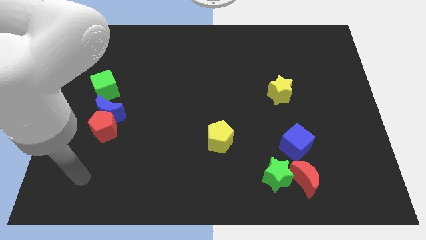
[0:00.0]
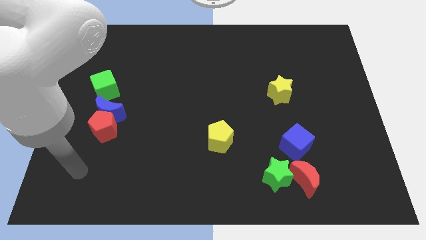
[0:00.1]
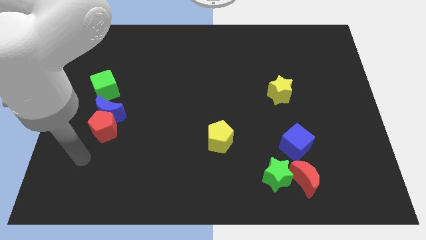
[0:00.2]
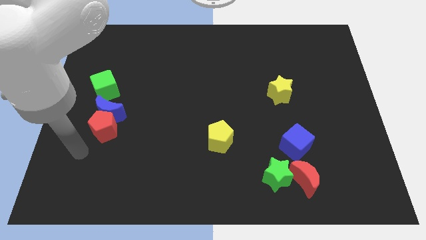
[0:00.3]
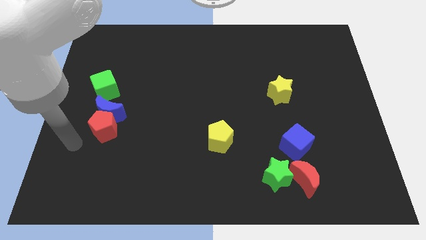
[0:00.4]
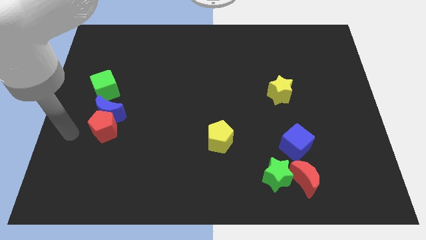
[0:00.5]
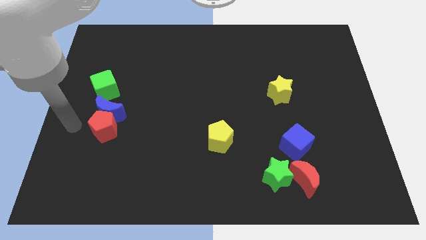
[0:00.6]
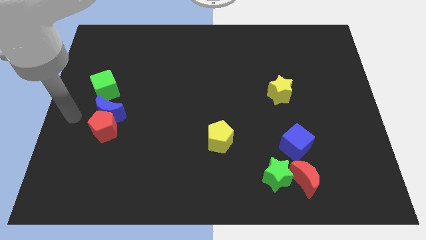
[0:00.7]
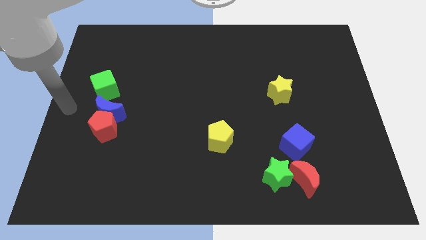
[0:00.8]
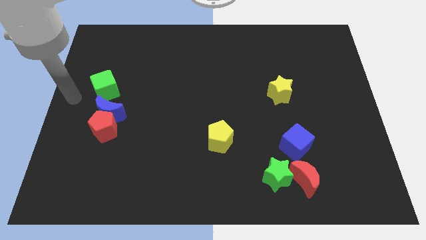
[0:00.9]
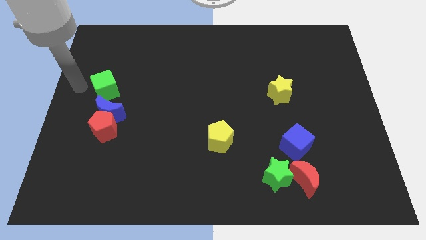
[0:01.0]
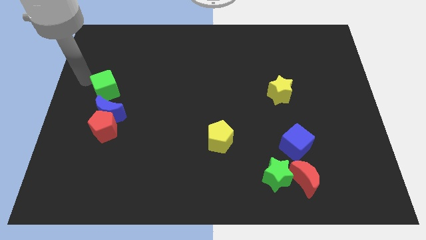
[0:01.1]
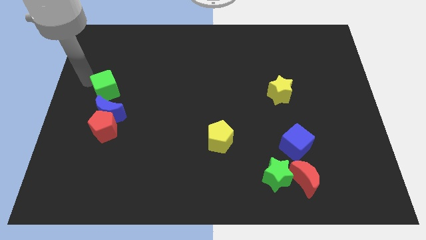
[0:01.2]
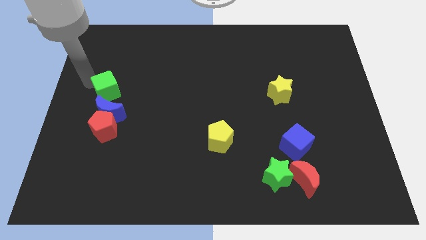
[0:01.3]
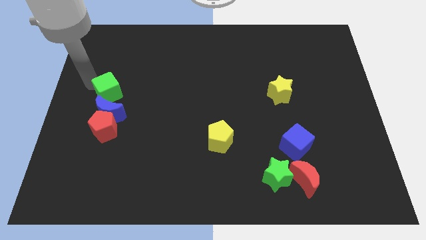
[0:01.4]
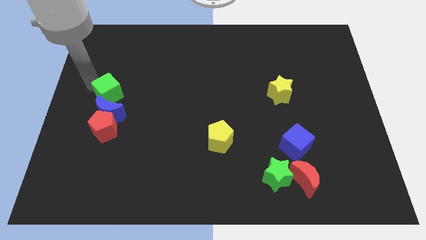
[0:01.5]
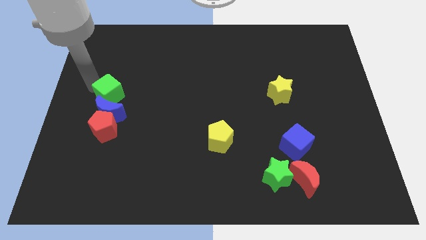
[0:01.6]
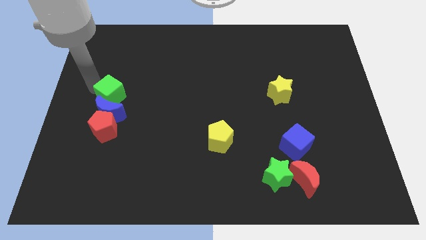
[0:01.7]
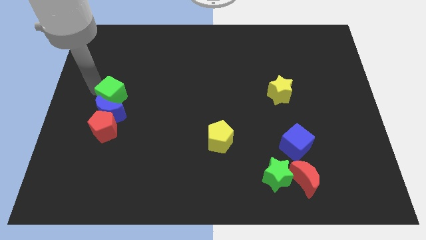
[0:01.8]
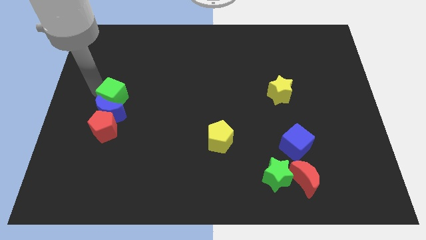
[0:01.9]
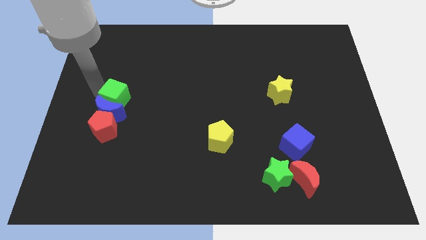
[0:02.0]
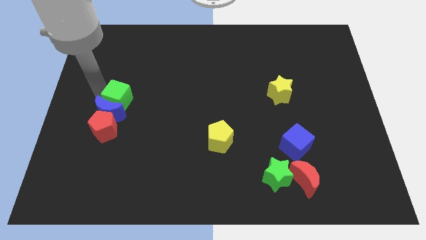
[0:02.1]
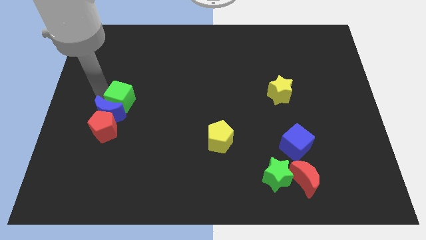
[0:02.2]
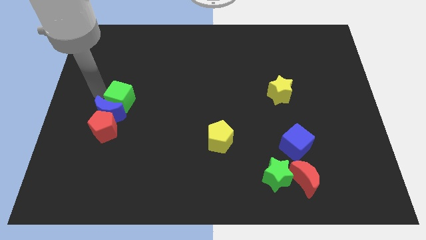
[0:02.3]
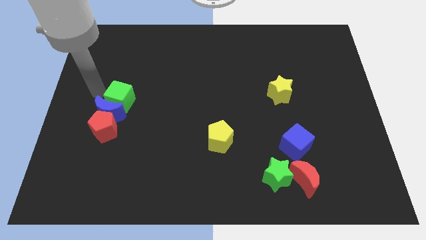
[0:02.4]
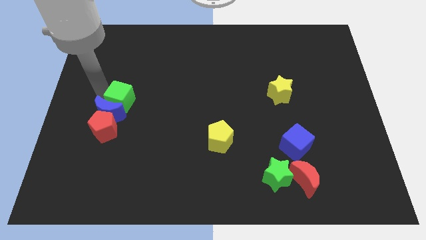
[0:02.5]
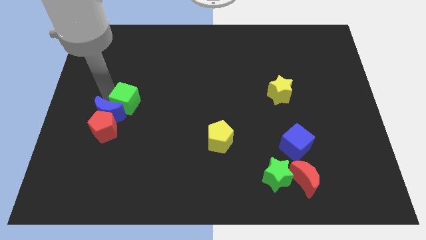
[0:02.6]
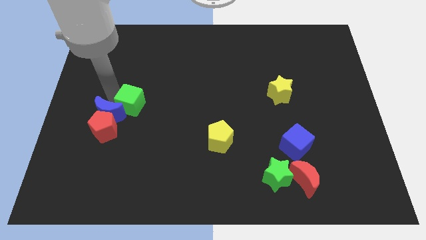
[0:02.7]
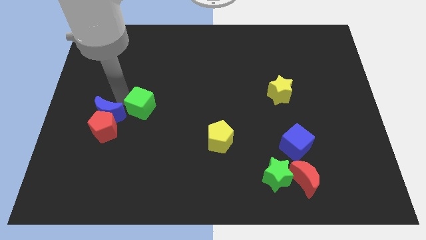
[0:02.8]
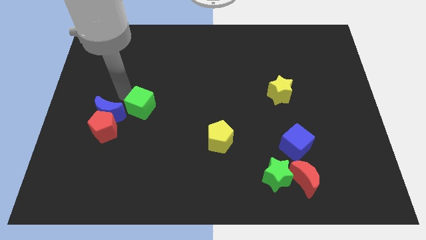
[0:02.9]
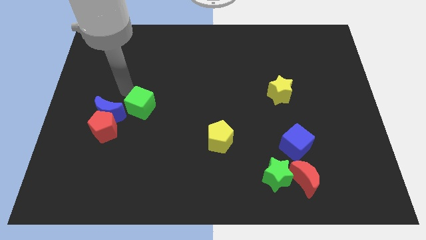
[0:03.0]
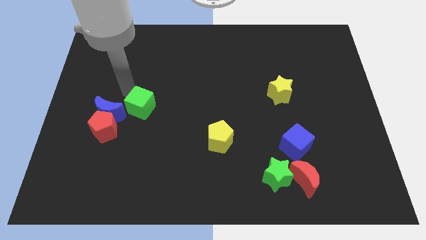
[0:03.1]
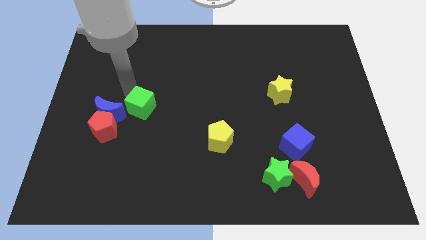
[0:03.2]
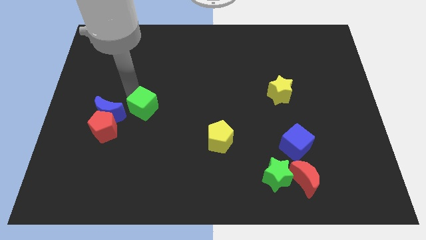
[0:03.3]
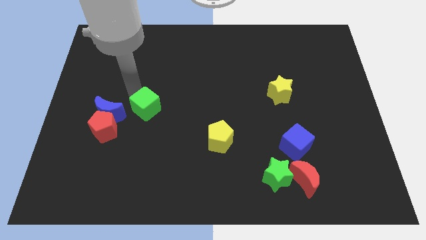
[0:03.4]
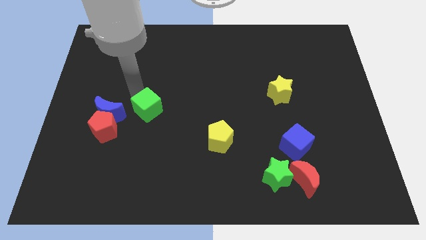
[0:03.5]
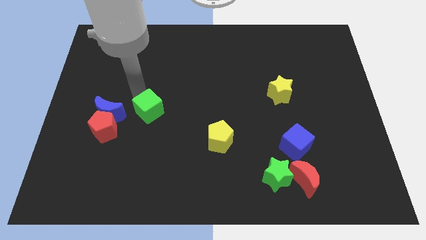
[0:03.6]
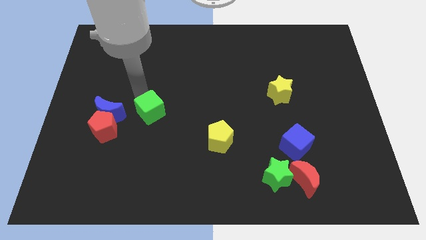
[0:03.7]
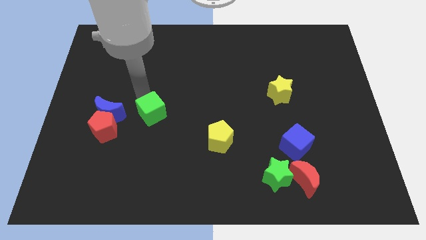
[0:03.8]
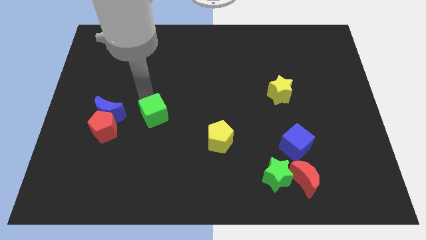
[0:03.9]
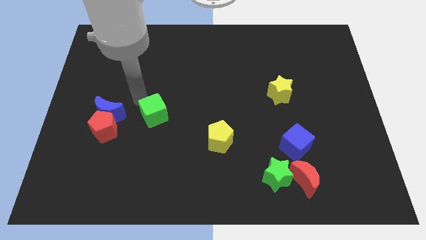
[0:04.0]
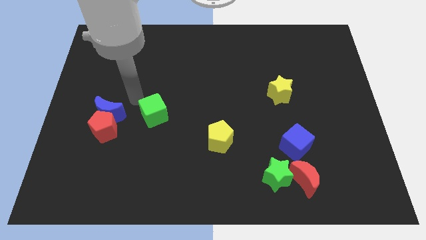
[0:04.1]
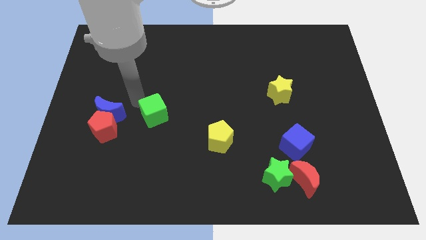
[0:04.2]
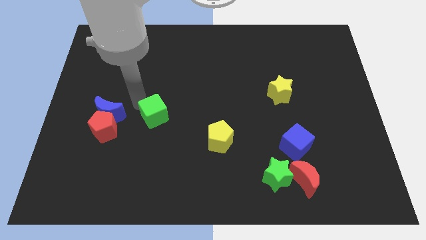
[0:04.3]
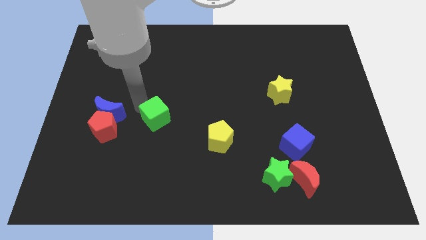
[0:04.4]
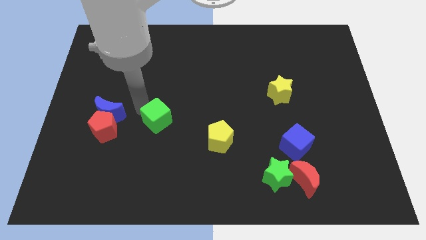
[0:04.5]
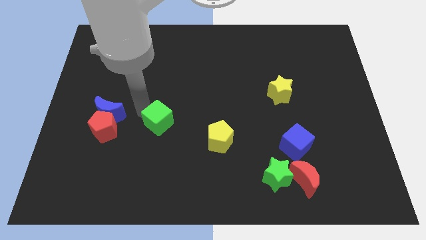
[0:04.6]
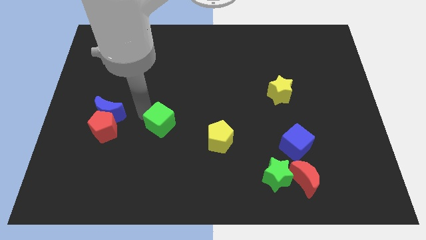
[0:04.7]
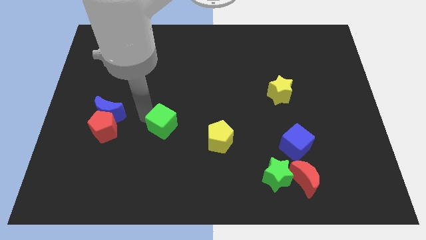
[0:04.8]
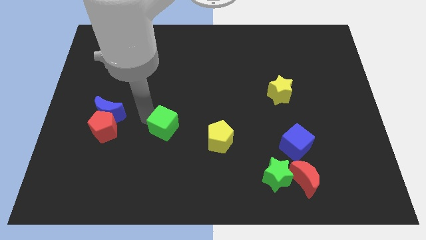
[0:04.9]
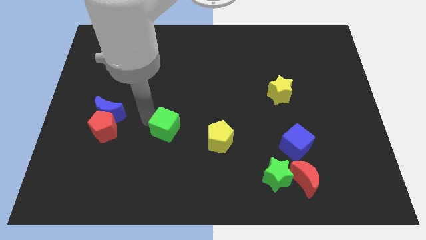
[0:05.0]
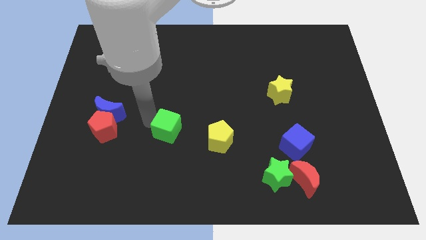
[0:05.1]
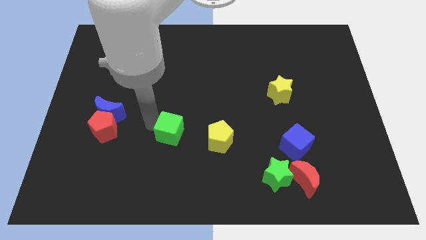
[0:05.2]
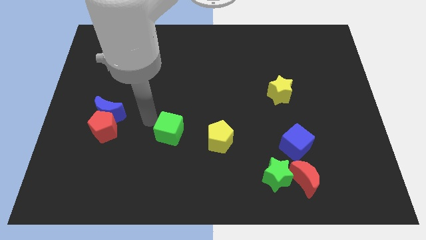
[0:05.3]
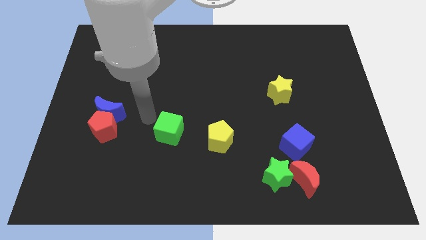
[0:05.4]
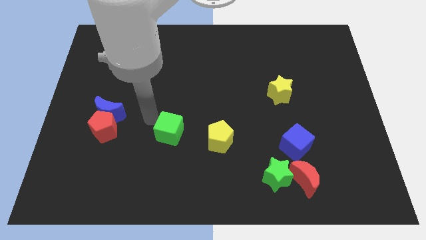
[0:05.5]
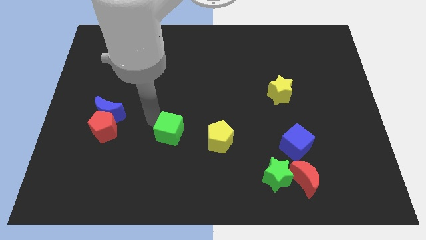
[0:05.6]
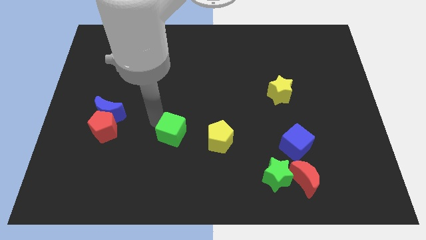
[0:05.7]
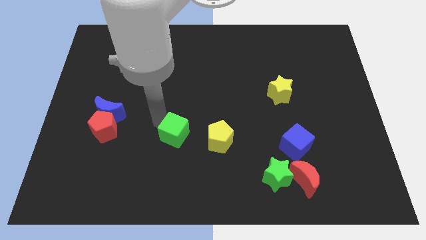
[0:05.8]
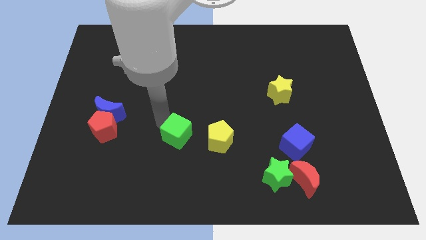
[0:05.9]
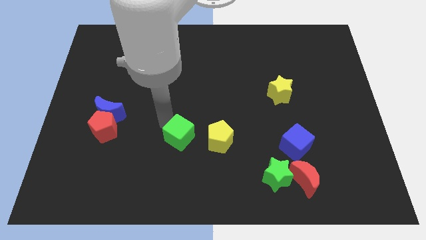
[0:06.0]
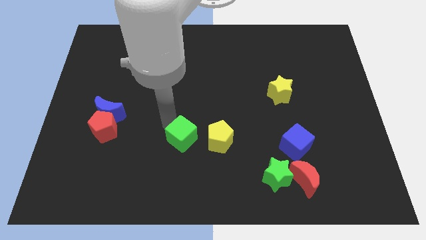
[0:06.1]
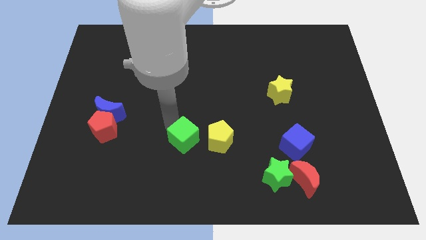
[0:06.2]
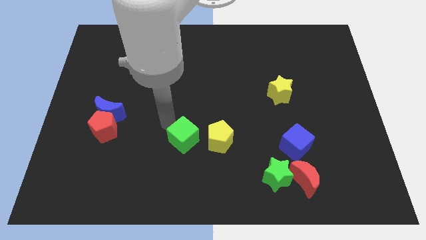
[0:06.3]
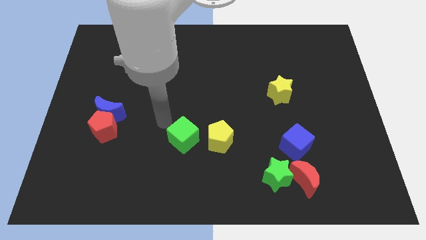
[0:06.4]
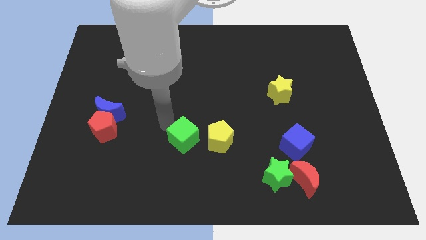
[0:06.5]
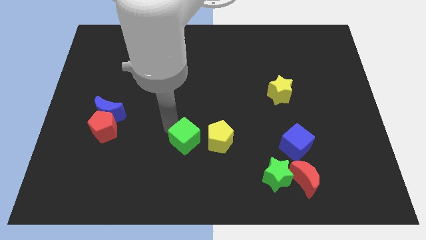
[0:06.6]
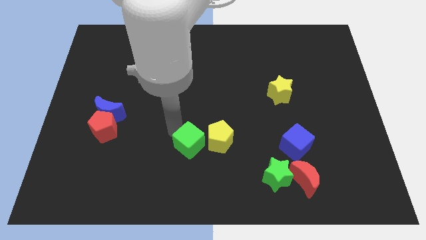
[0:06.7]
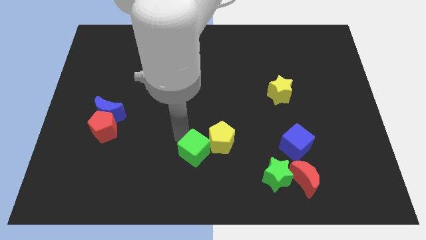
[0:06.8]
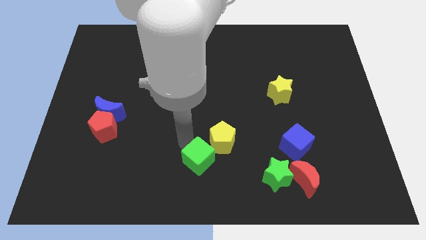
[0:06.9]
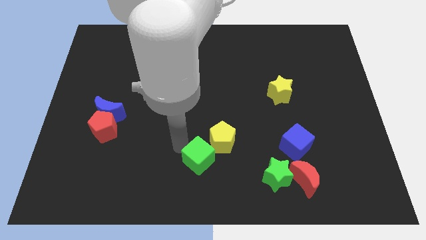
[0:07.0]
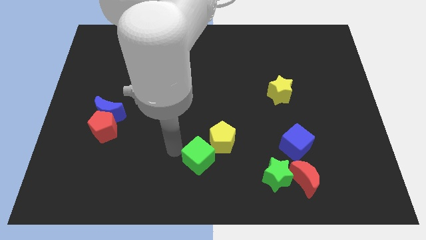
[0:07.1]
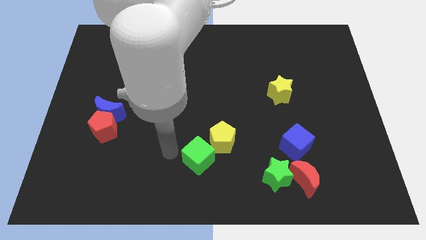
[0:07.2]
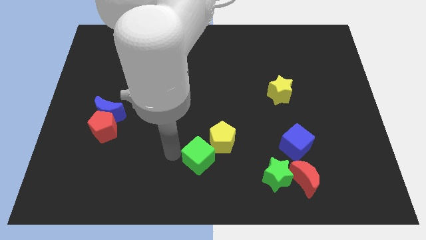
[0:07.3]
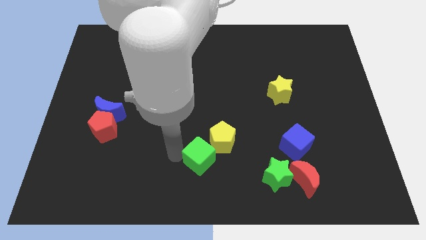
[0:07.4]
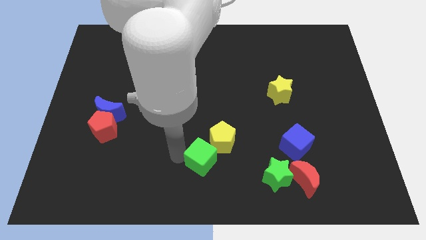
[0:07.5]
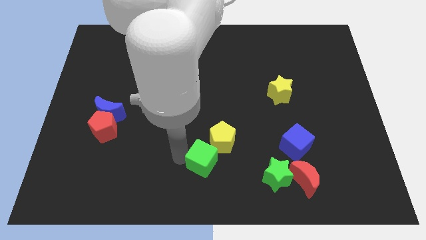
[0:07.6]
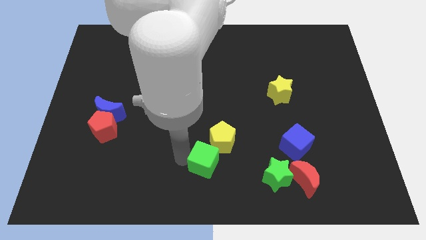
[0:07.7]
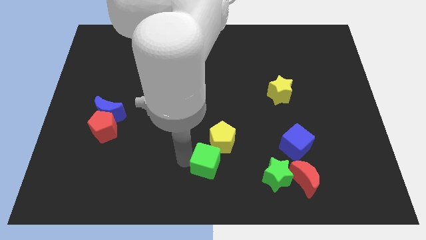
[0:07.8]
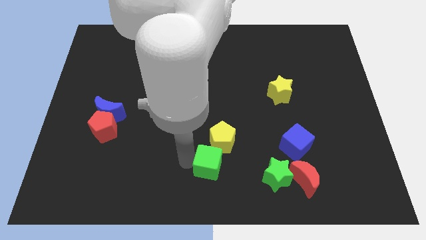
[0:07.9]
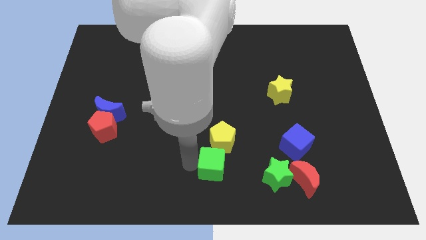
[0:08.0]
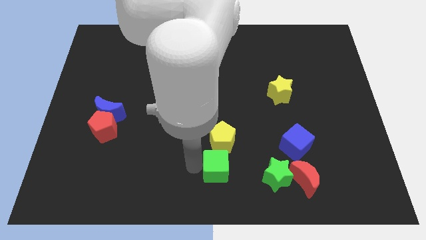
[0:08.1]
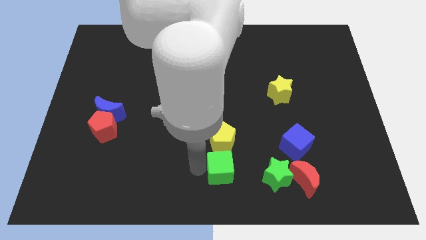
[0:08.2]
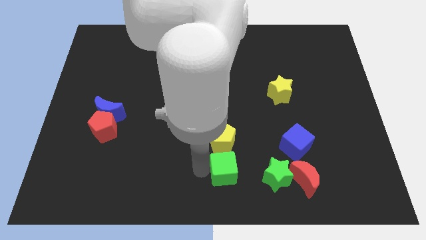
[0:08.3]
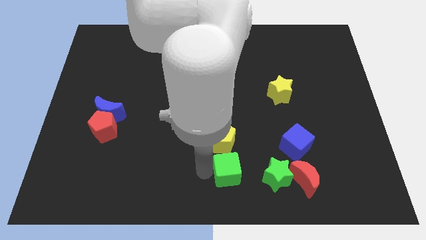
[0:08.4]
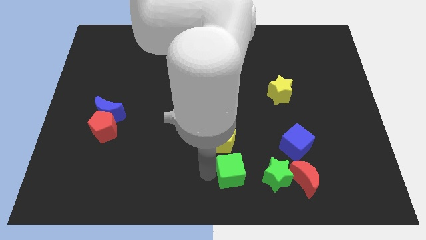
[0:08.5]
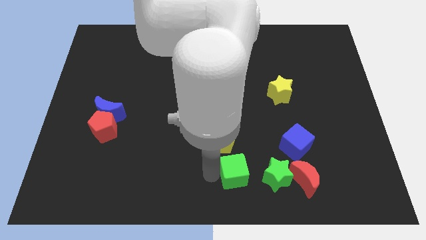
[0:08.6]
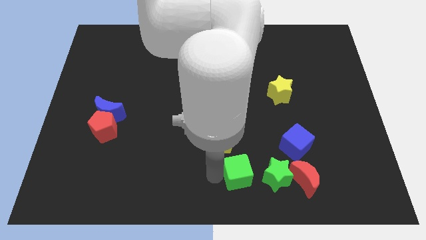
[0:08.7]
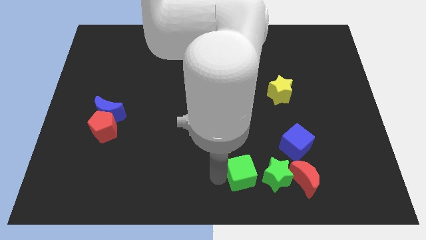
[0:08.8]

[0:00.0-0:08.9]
put the green cube to the top left of the green star
